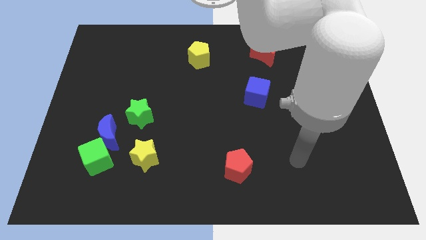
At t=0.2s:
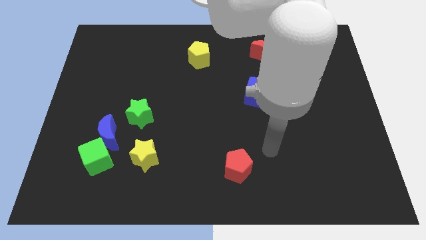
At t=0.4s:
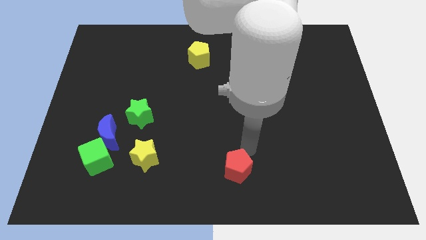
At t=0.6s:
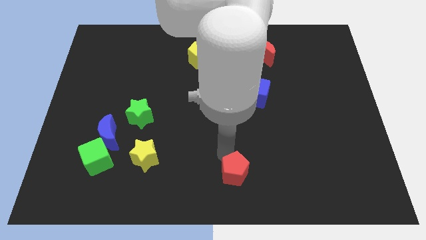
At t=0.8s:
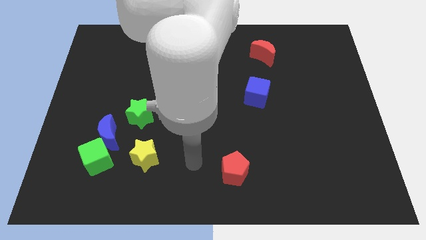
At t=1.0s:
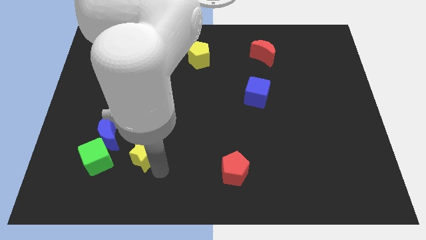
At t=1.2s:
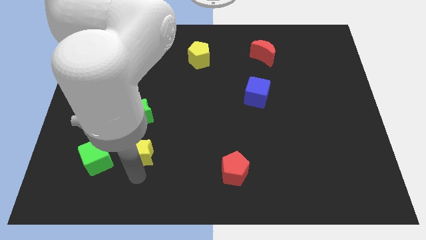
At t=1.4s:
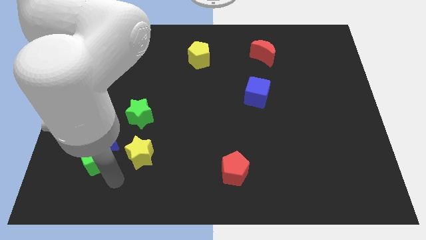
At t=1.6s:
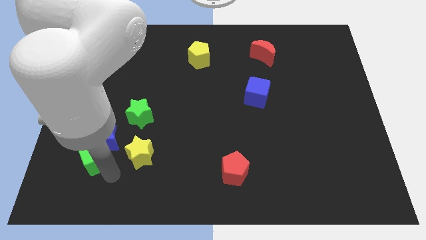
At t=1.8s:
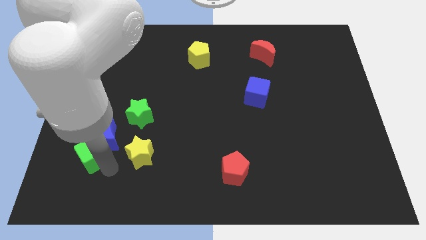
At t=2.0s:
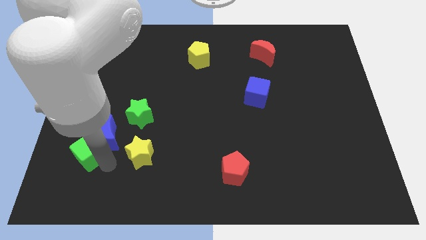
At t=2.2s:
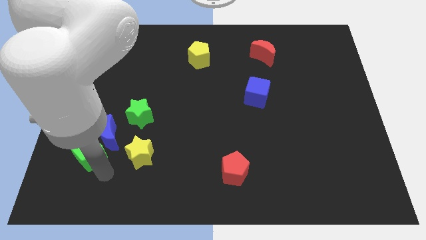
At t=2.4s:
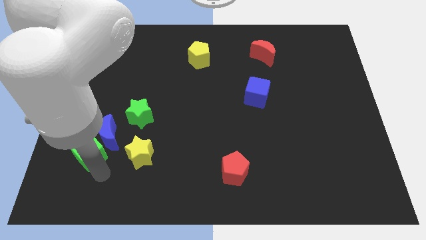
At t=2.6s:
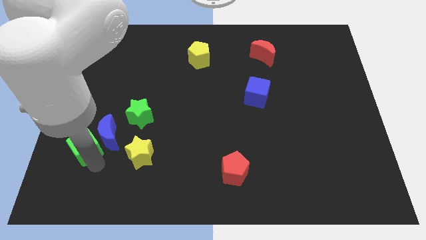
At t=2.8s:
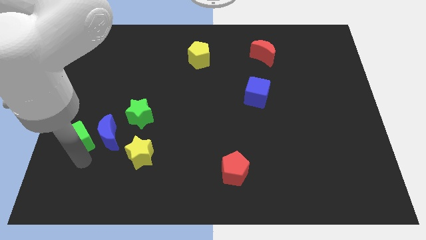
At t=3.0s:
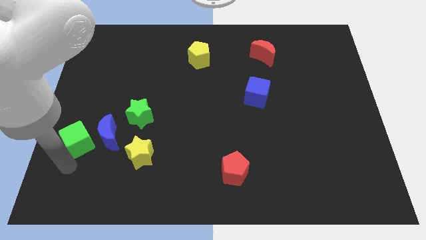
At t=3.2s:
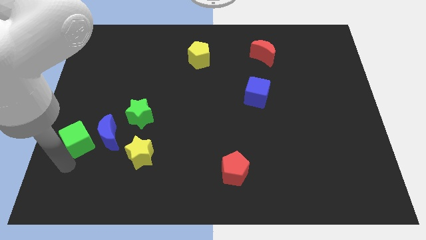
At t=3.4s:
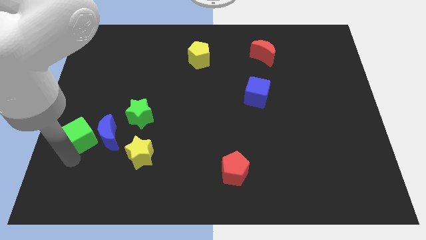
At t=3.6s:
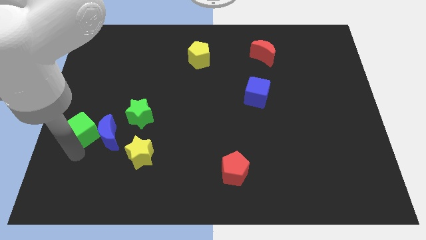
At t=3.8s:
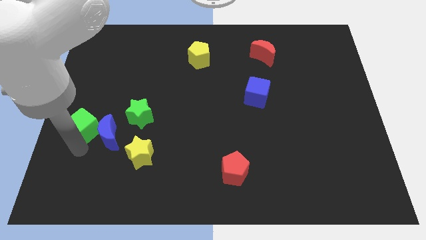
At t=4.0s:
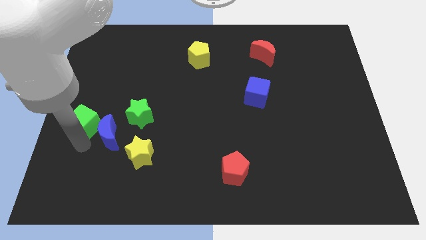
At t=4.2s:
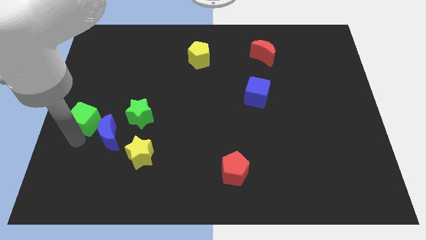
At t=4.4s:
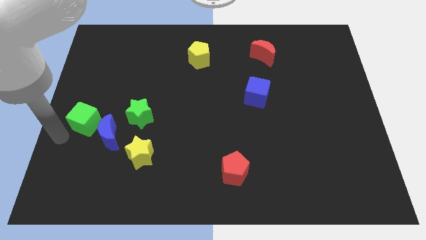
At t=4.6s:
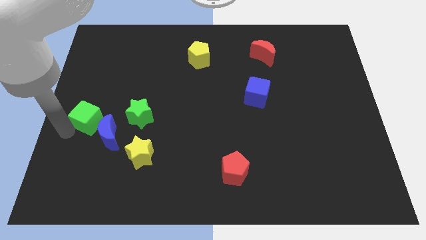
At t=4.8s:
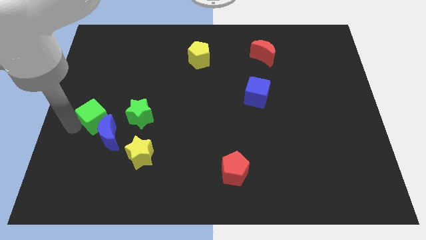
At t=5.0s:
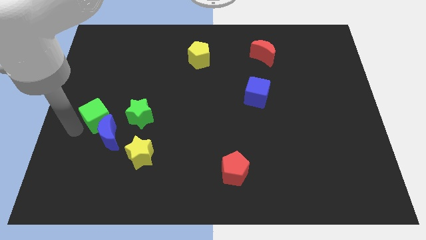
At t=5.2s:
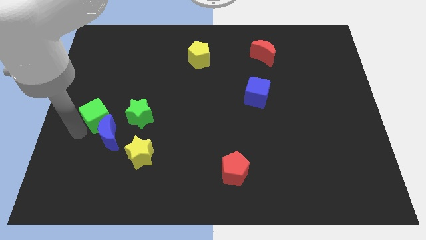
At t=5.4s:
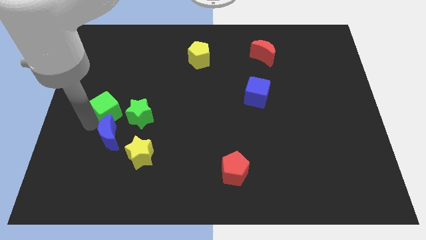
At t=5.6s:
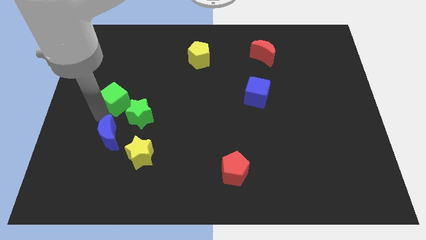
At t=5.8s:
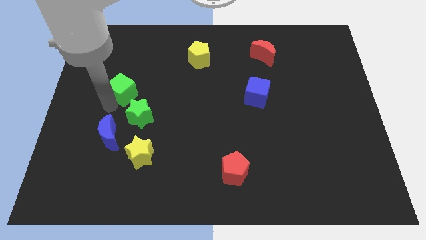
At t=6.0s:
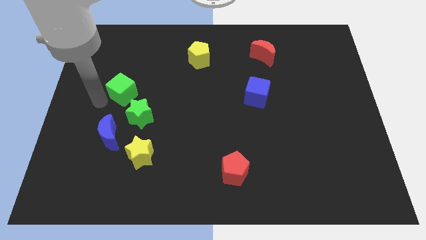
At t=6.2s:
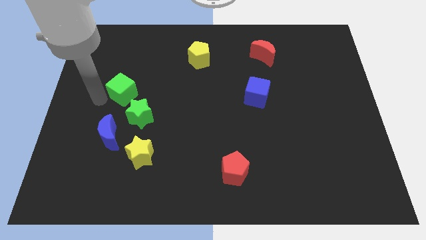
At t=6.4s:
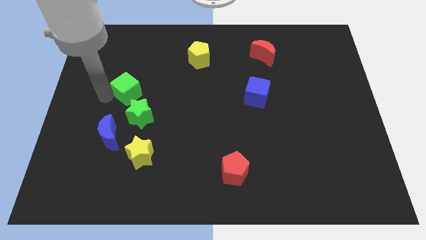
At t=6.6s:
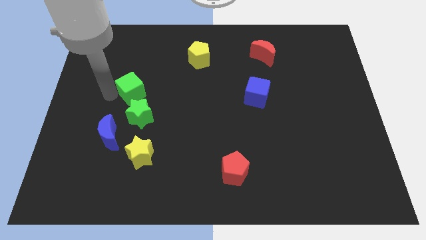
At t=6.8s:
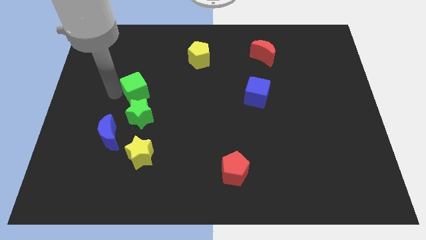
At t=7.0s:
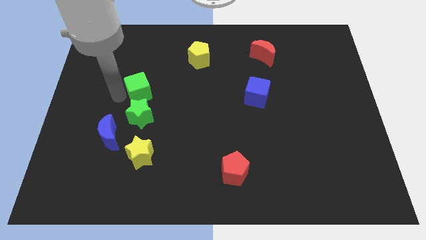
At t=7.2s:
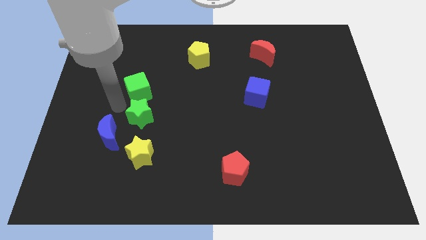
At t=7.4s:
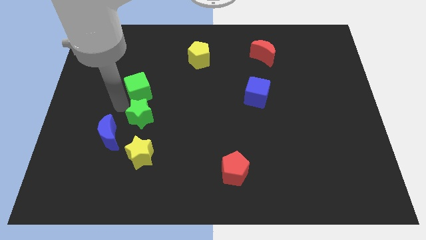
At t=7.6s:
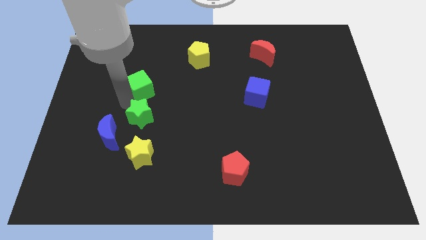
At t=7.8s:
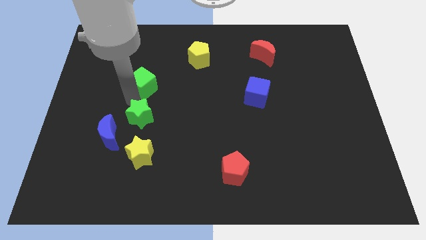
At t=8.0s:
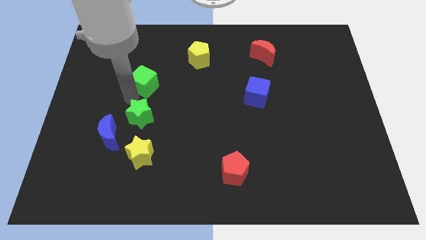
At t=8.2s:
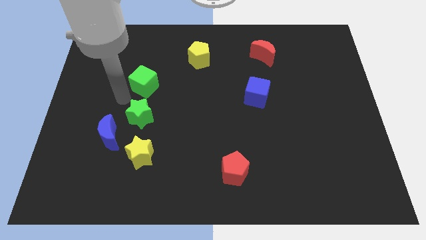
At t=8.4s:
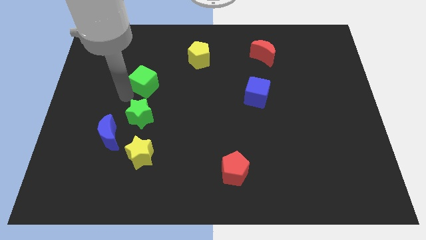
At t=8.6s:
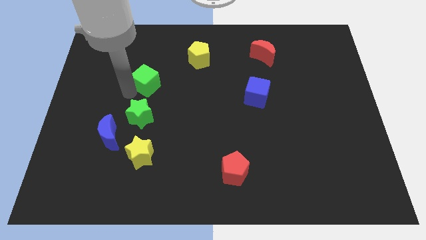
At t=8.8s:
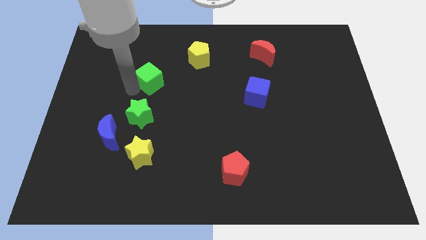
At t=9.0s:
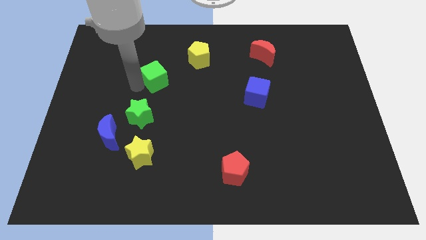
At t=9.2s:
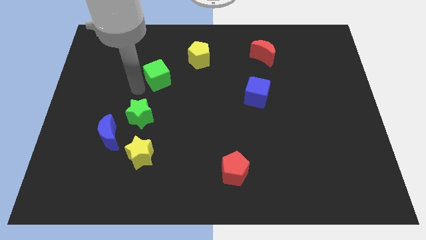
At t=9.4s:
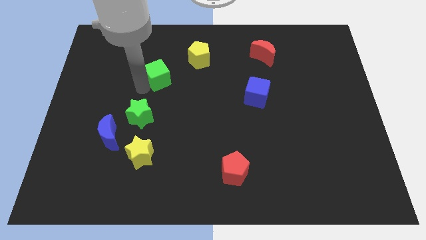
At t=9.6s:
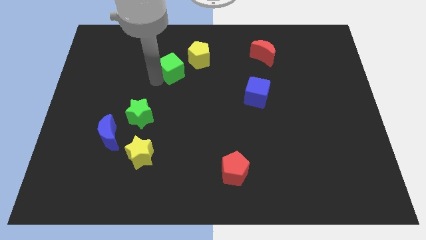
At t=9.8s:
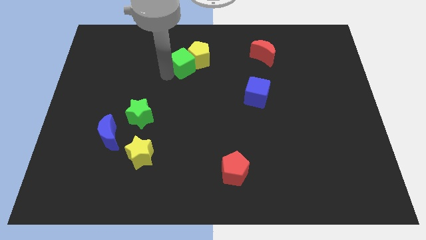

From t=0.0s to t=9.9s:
slide the green cube next to the yellow pentagon

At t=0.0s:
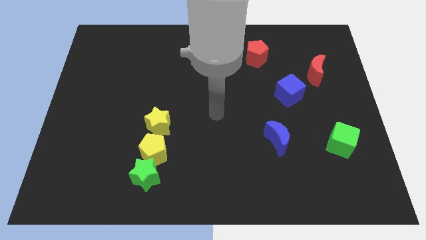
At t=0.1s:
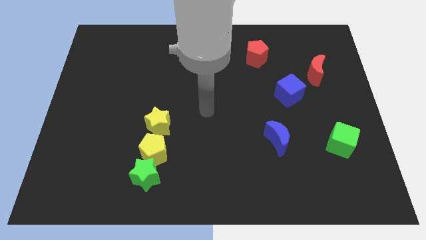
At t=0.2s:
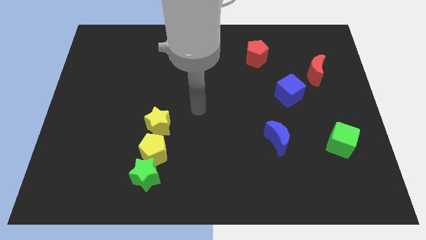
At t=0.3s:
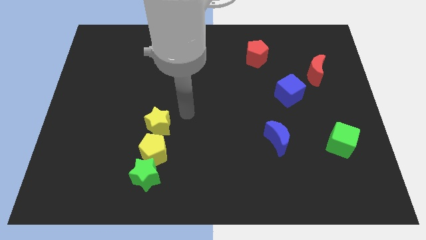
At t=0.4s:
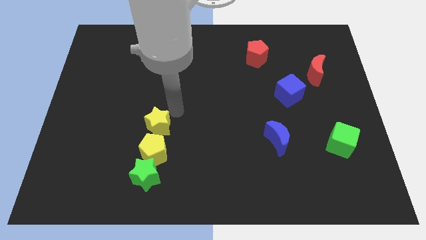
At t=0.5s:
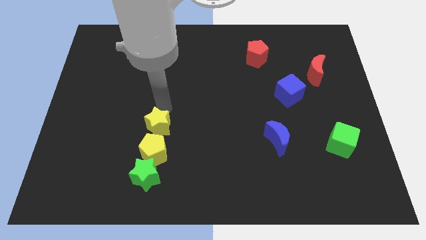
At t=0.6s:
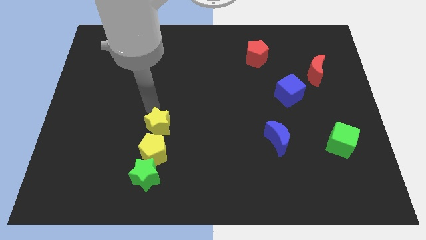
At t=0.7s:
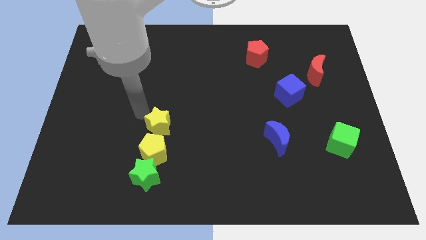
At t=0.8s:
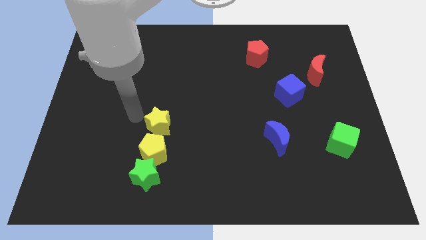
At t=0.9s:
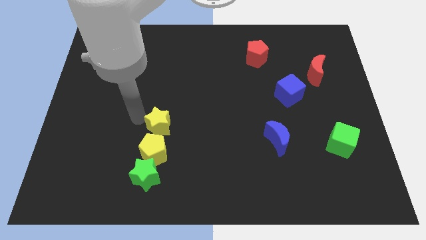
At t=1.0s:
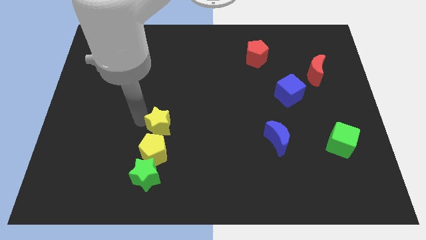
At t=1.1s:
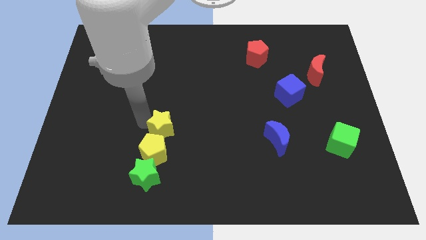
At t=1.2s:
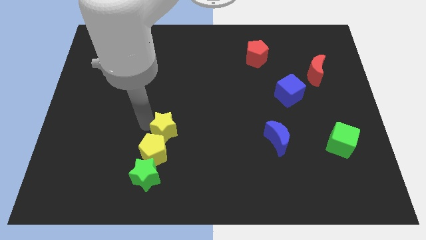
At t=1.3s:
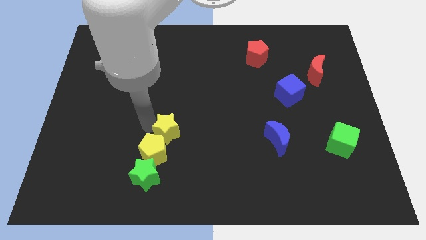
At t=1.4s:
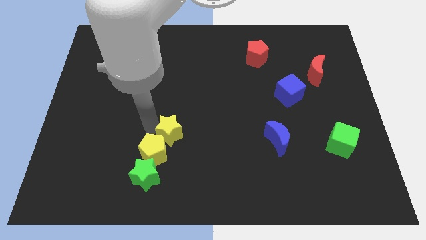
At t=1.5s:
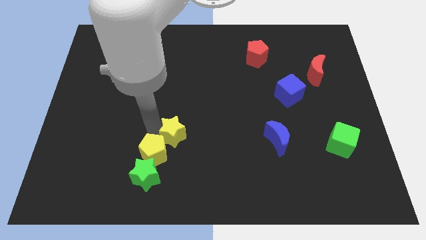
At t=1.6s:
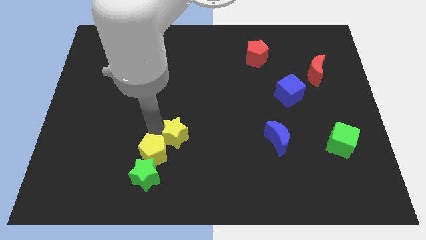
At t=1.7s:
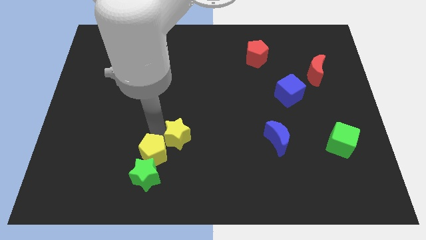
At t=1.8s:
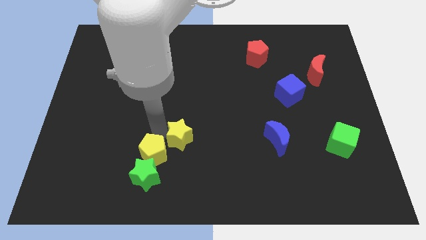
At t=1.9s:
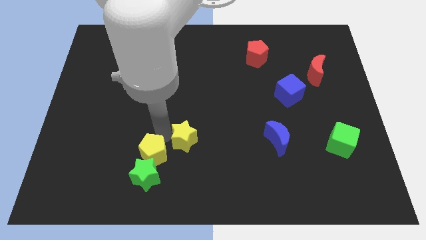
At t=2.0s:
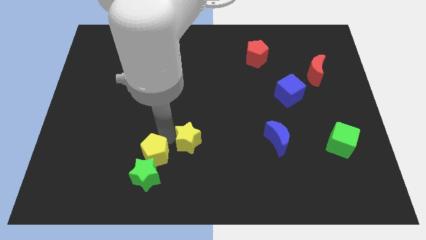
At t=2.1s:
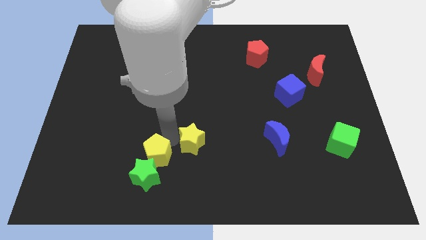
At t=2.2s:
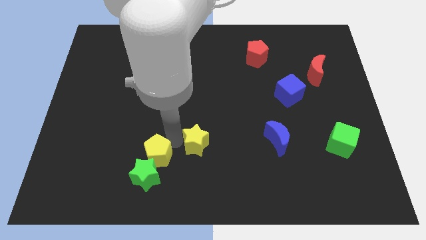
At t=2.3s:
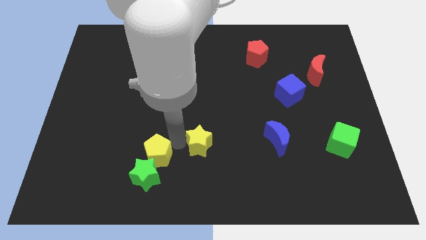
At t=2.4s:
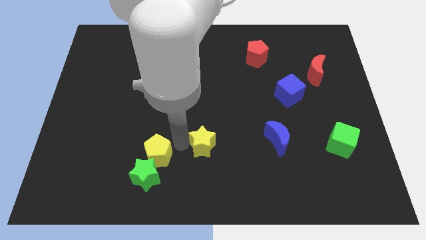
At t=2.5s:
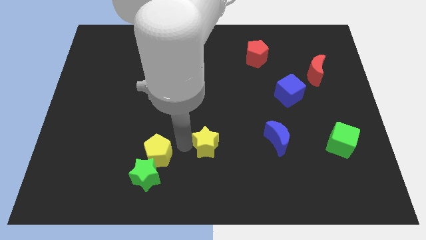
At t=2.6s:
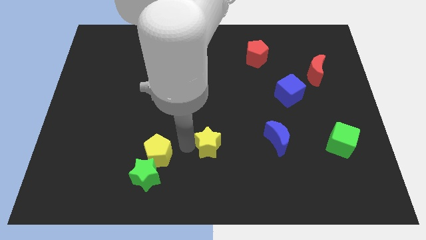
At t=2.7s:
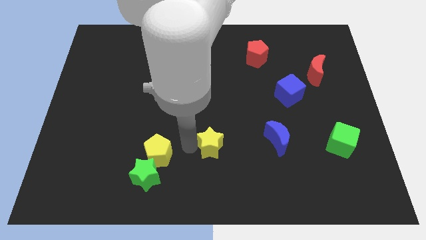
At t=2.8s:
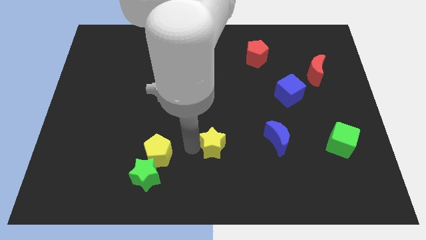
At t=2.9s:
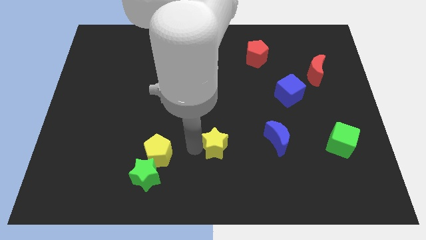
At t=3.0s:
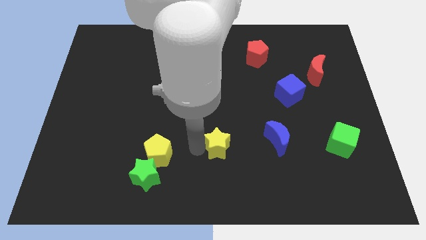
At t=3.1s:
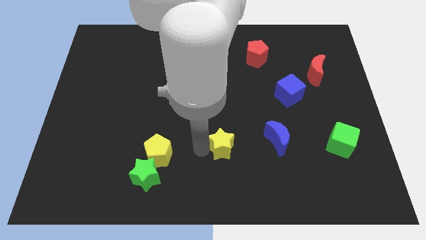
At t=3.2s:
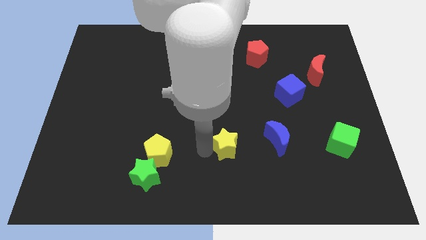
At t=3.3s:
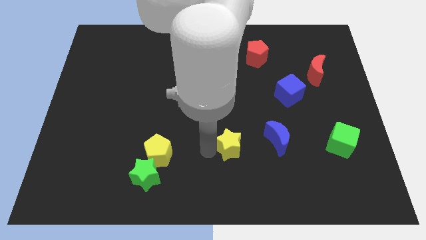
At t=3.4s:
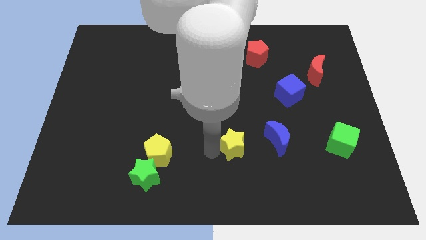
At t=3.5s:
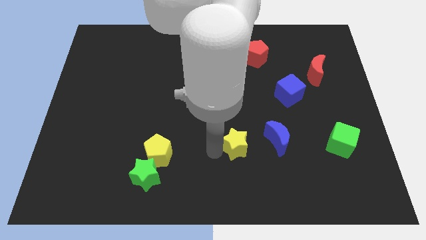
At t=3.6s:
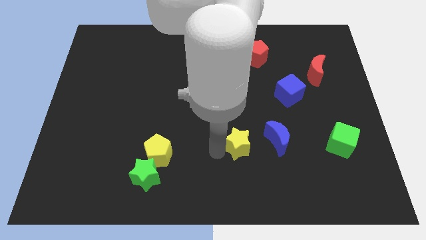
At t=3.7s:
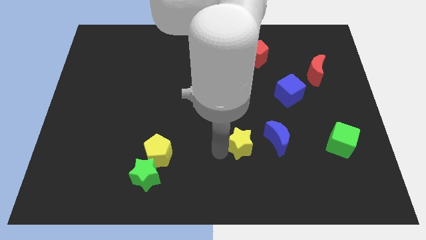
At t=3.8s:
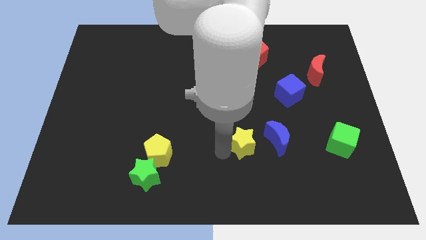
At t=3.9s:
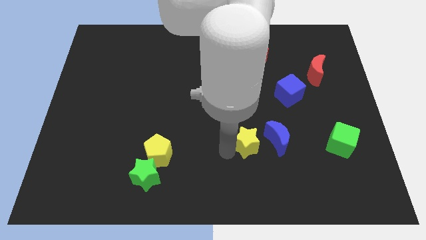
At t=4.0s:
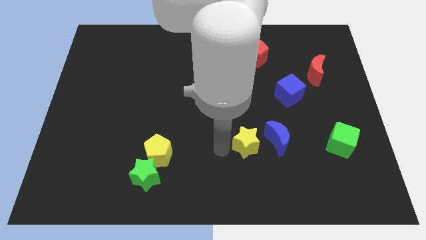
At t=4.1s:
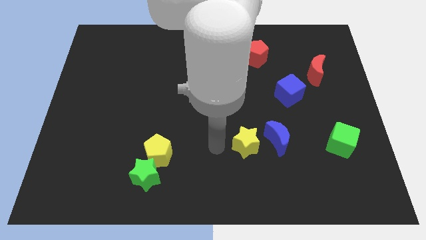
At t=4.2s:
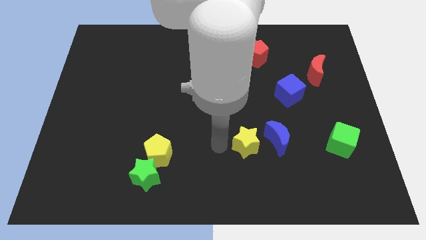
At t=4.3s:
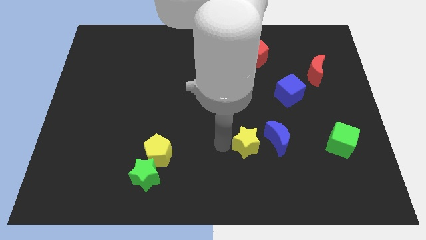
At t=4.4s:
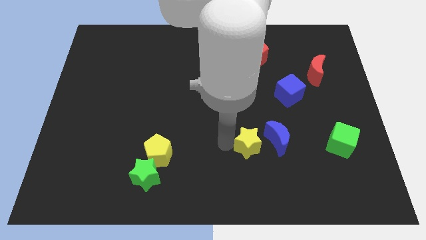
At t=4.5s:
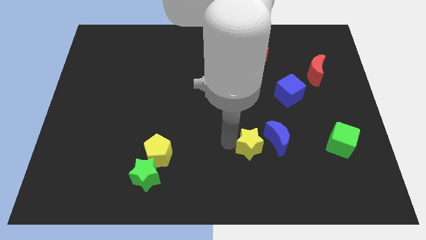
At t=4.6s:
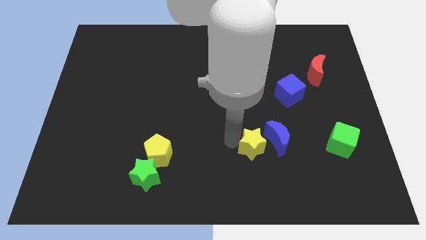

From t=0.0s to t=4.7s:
slide the yellow star close to the blue moon
